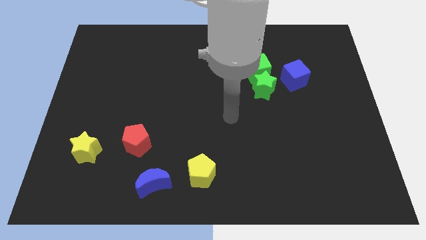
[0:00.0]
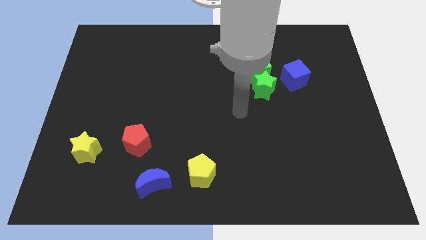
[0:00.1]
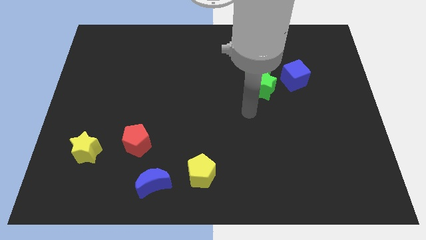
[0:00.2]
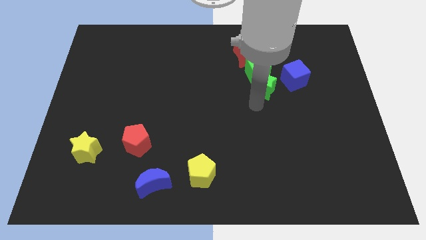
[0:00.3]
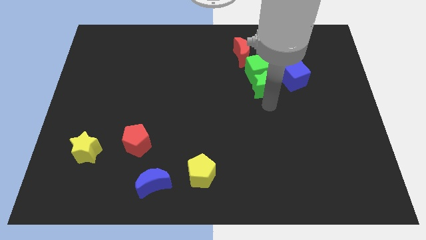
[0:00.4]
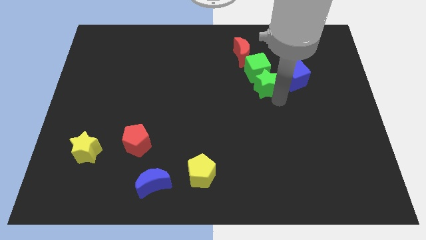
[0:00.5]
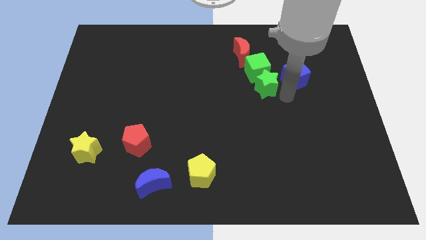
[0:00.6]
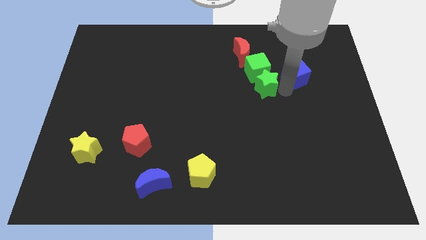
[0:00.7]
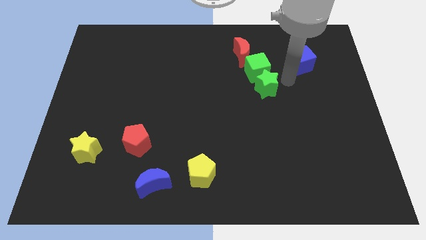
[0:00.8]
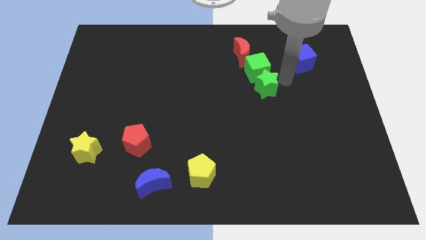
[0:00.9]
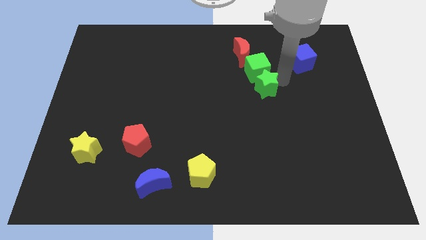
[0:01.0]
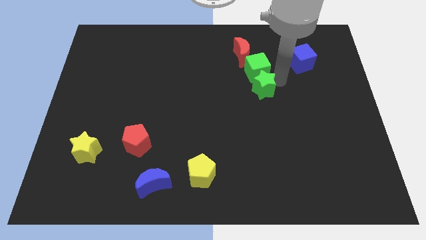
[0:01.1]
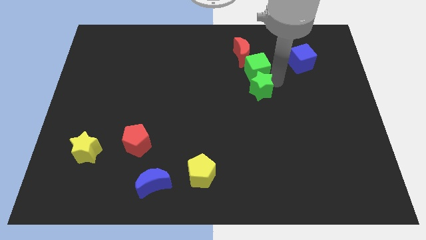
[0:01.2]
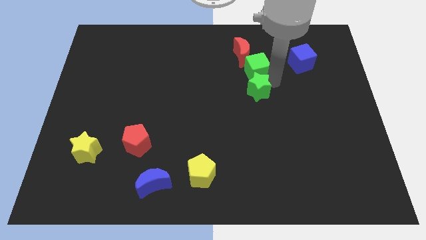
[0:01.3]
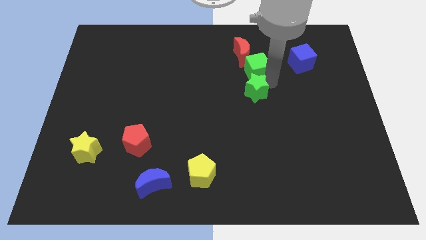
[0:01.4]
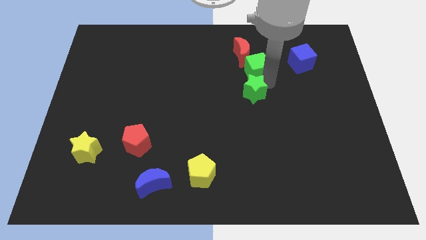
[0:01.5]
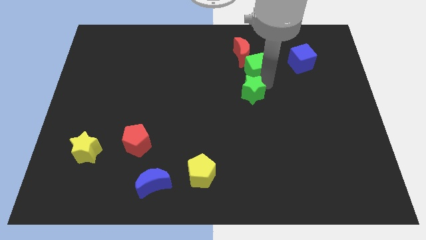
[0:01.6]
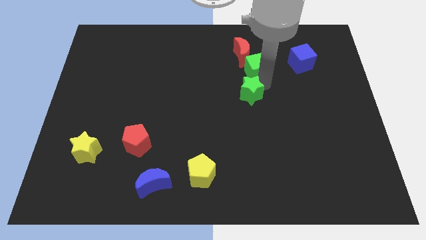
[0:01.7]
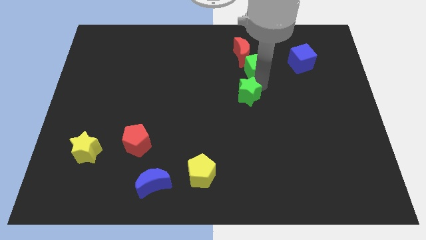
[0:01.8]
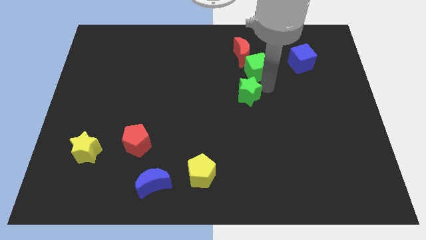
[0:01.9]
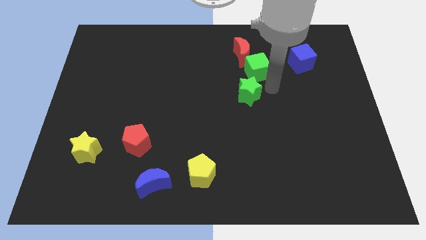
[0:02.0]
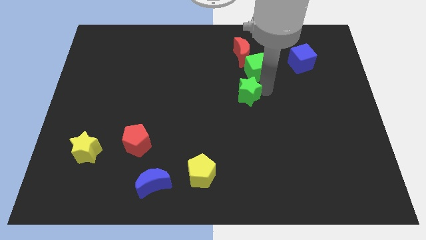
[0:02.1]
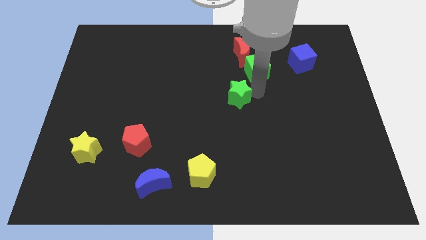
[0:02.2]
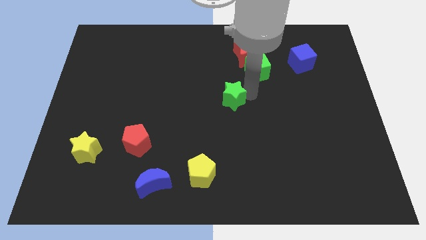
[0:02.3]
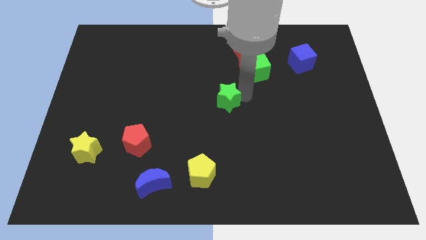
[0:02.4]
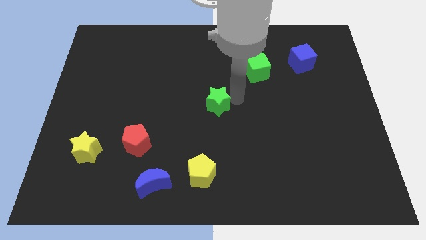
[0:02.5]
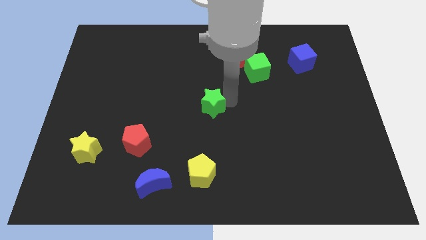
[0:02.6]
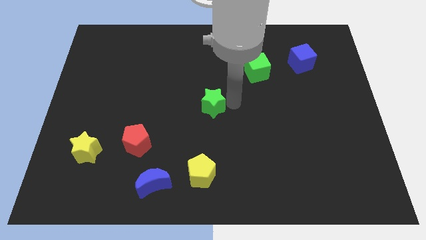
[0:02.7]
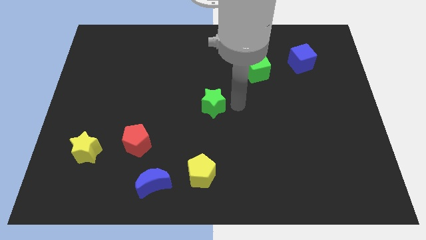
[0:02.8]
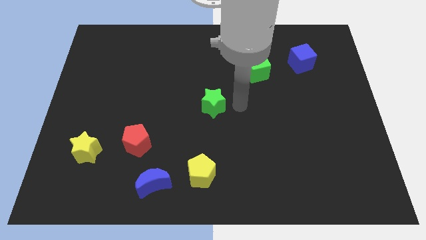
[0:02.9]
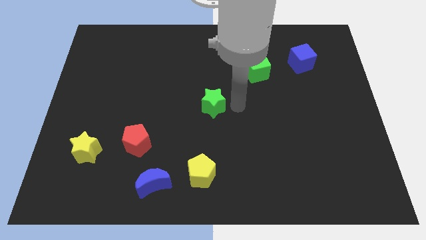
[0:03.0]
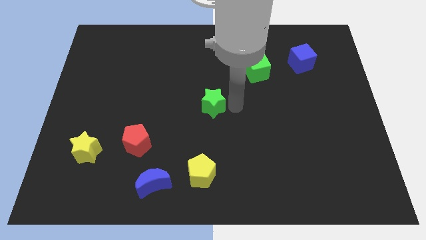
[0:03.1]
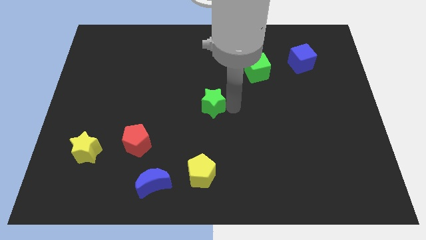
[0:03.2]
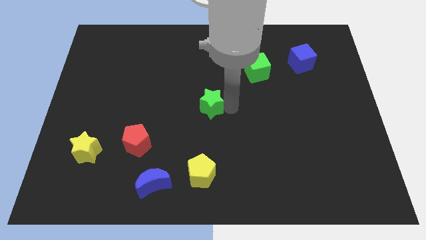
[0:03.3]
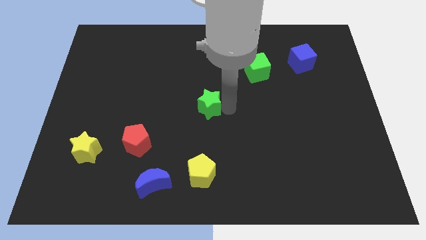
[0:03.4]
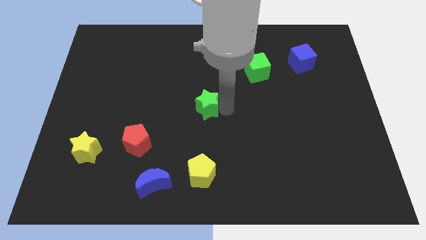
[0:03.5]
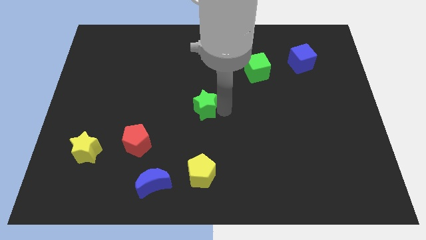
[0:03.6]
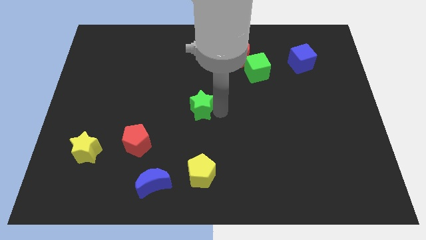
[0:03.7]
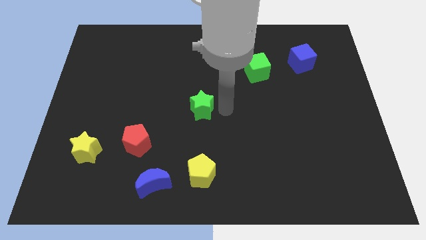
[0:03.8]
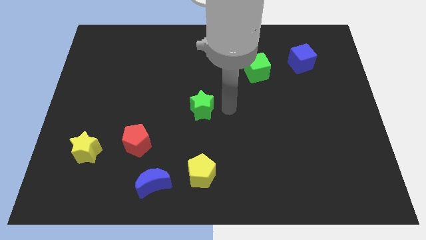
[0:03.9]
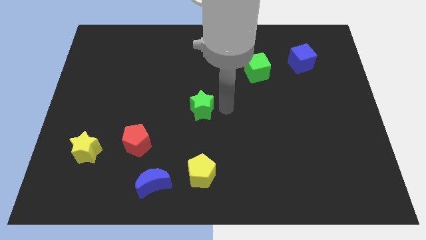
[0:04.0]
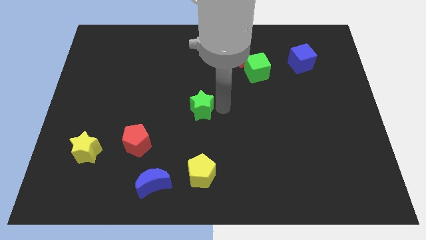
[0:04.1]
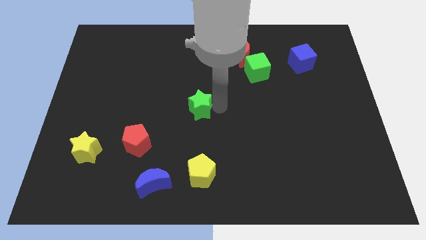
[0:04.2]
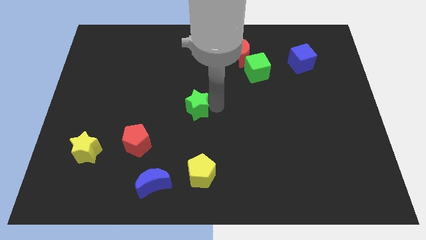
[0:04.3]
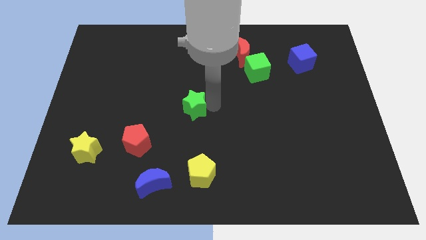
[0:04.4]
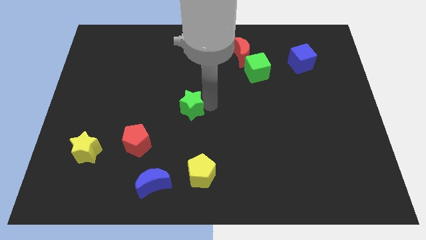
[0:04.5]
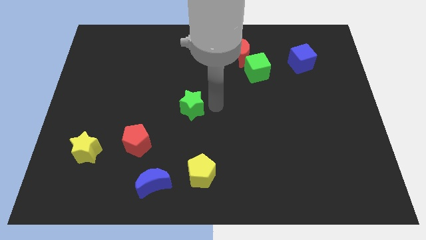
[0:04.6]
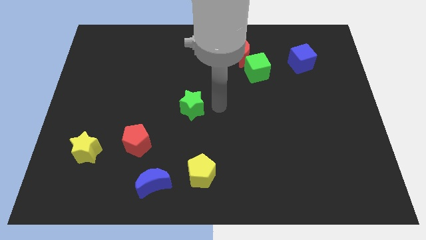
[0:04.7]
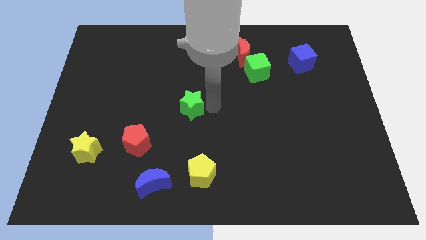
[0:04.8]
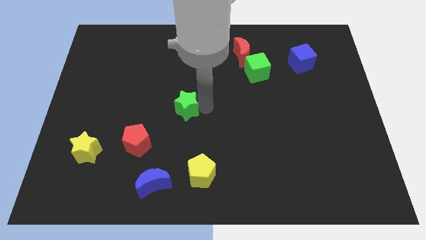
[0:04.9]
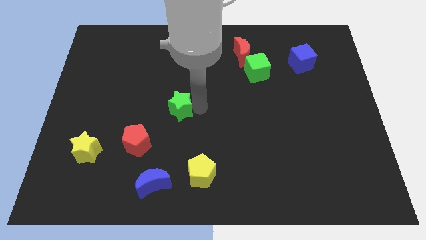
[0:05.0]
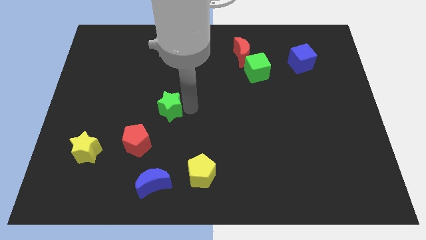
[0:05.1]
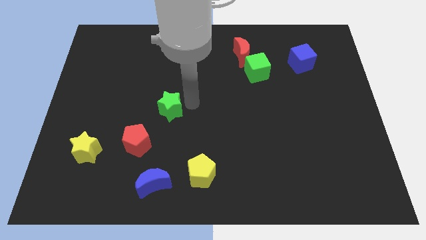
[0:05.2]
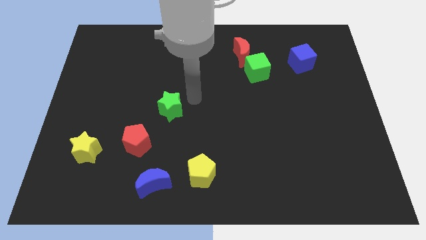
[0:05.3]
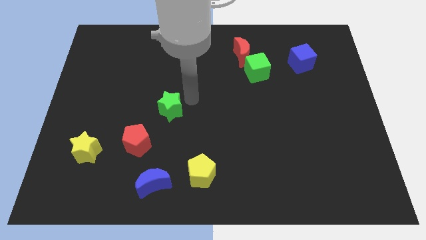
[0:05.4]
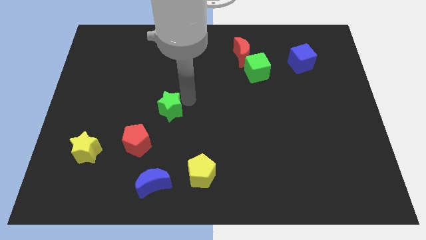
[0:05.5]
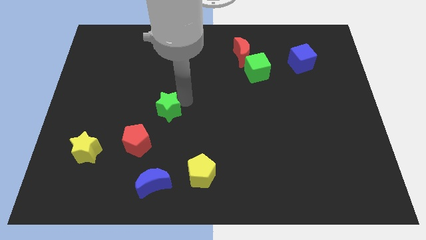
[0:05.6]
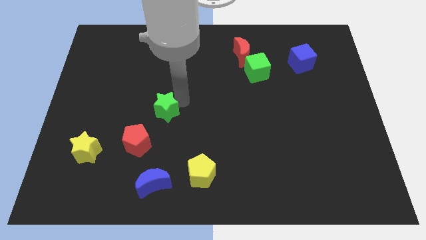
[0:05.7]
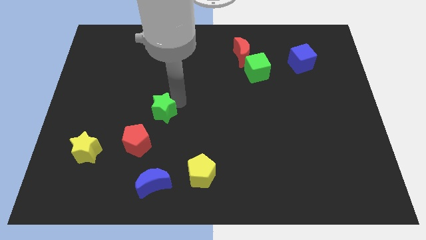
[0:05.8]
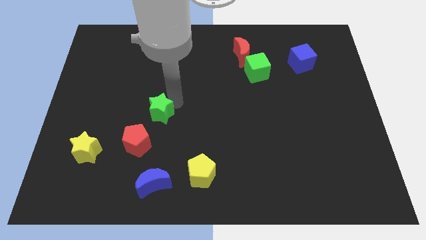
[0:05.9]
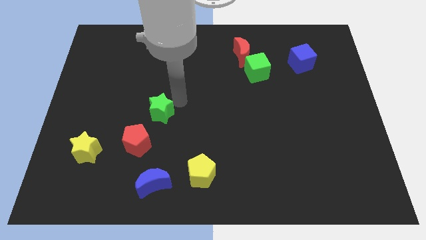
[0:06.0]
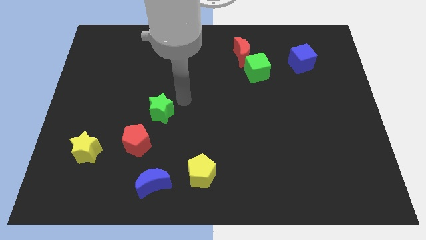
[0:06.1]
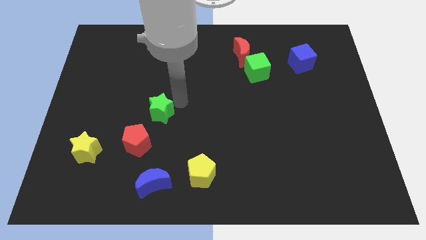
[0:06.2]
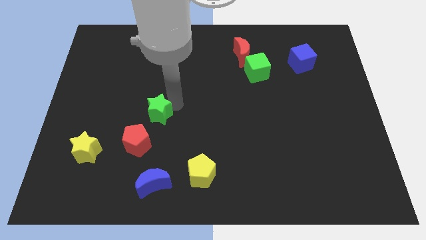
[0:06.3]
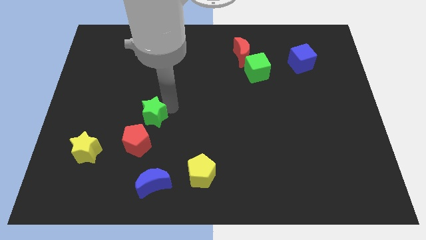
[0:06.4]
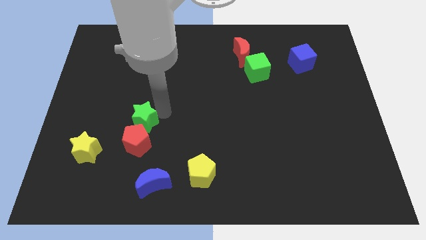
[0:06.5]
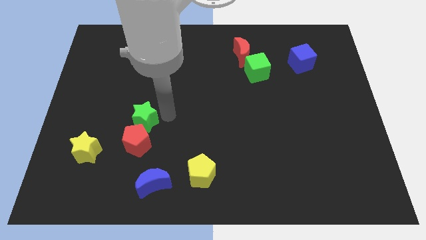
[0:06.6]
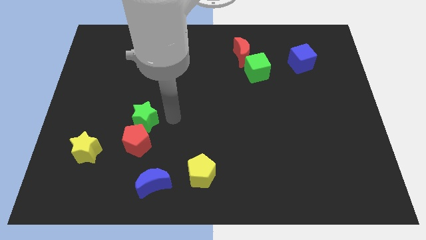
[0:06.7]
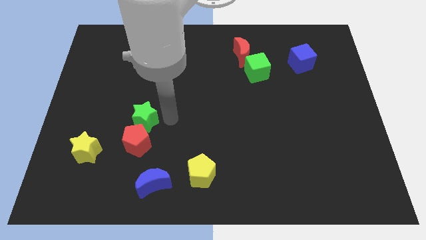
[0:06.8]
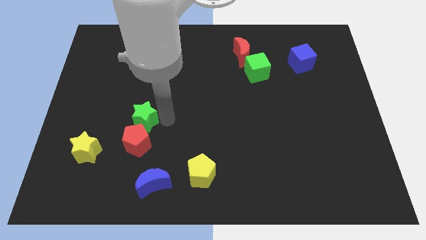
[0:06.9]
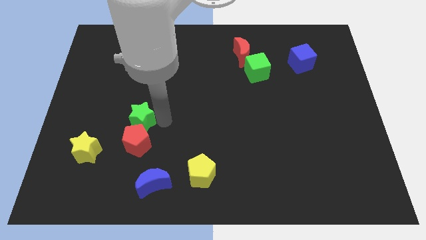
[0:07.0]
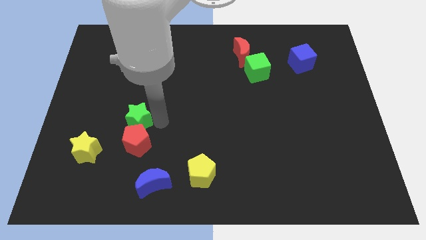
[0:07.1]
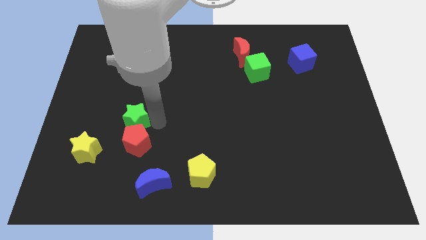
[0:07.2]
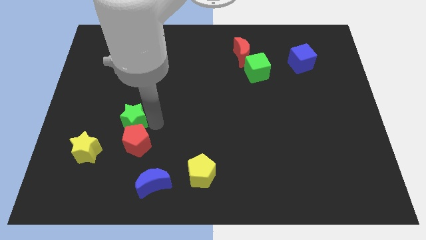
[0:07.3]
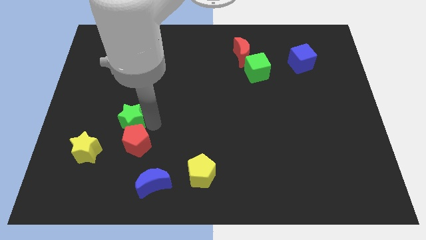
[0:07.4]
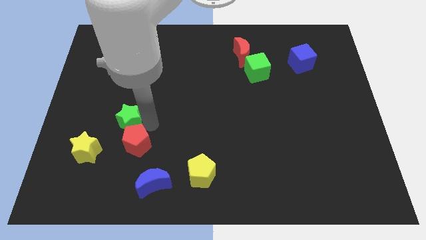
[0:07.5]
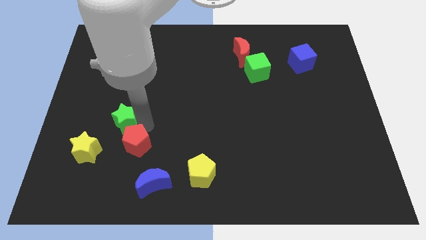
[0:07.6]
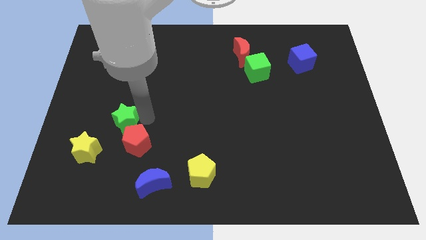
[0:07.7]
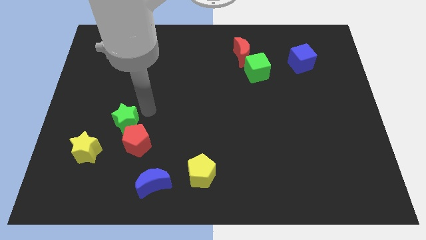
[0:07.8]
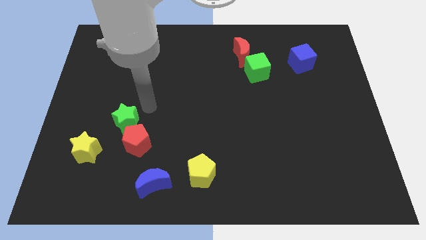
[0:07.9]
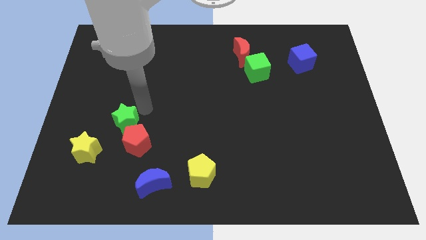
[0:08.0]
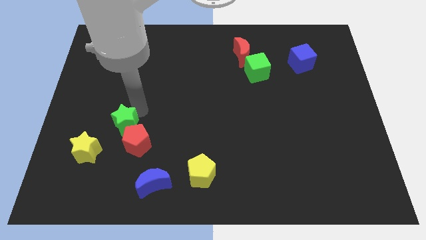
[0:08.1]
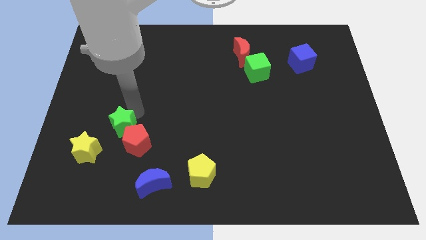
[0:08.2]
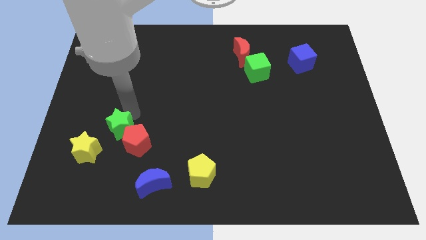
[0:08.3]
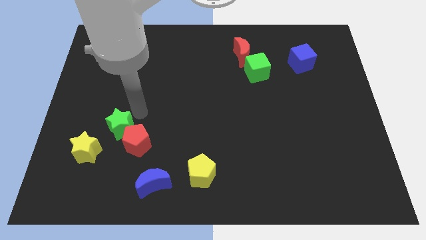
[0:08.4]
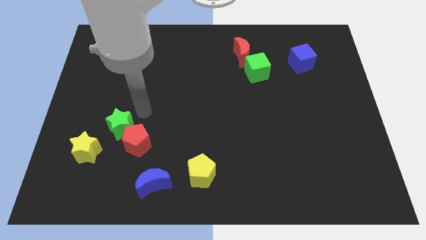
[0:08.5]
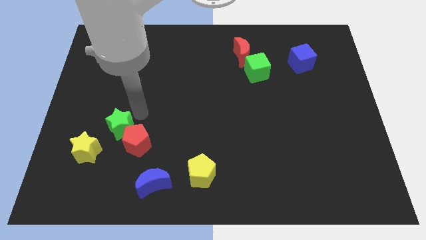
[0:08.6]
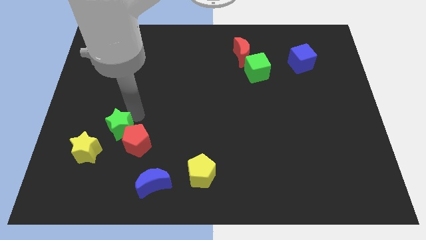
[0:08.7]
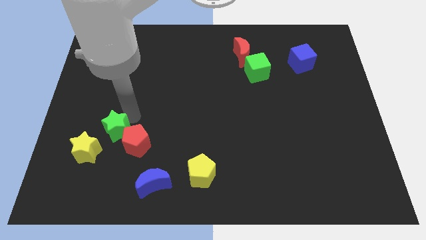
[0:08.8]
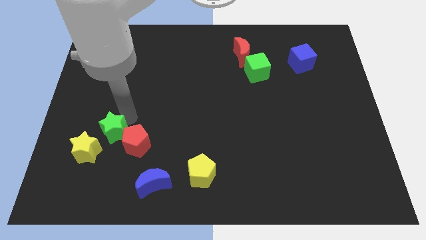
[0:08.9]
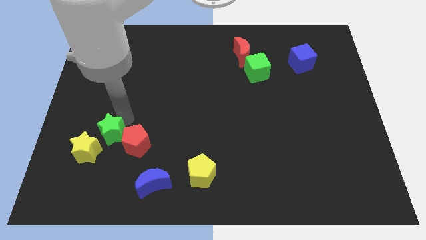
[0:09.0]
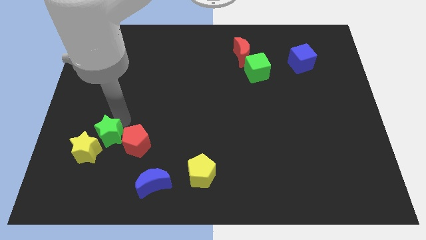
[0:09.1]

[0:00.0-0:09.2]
slide the green star towards the yellow star
